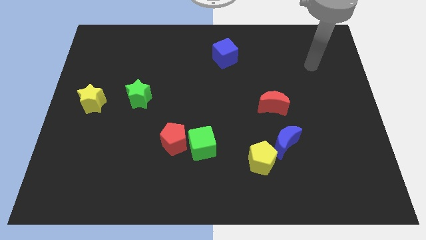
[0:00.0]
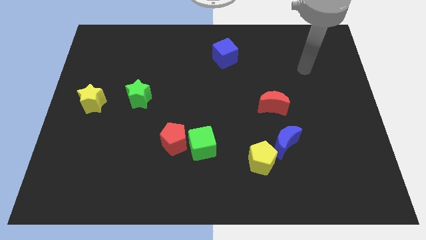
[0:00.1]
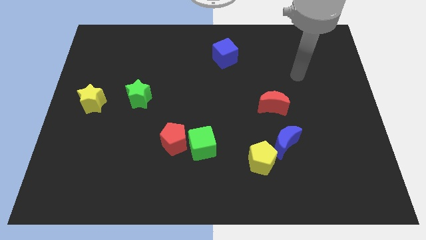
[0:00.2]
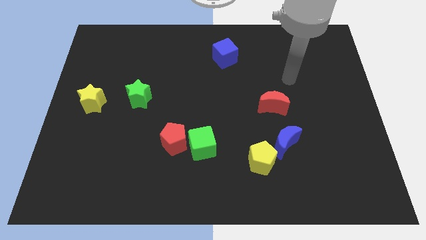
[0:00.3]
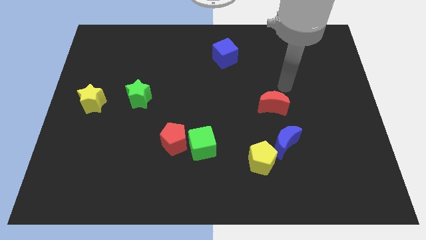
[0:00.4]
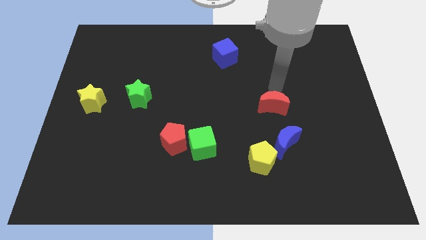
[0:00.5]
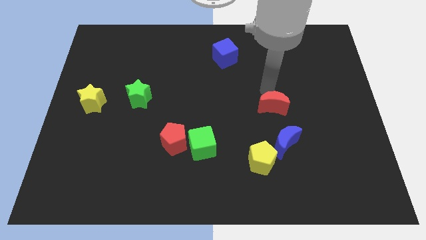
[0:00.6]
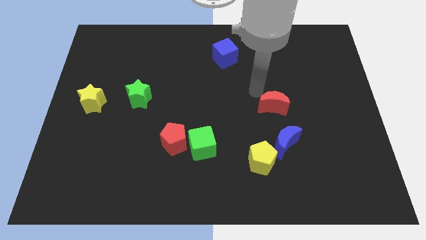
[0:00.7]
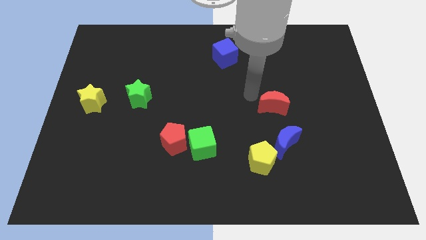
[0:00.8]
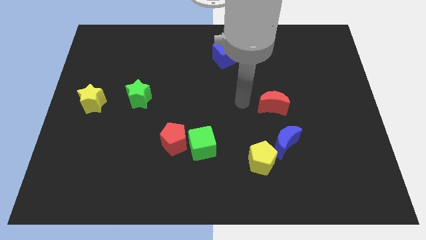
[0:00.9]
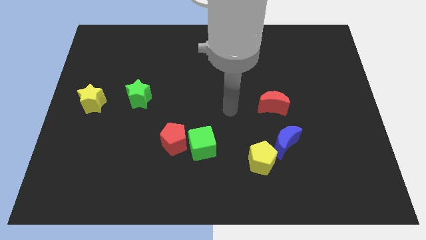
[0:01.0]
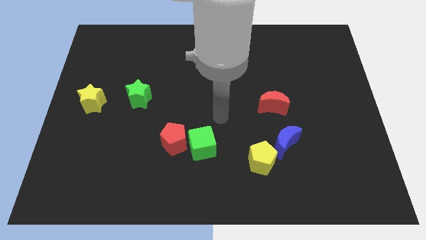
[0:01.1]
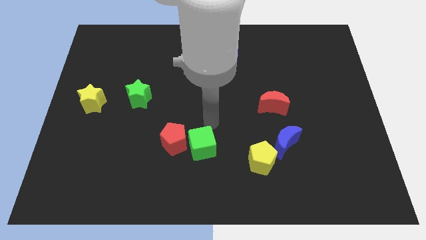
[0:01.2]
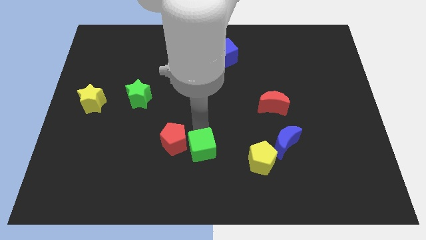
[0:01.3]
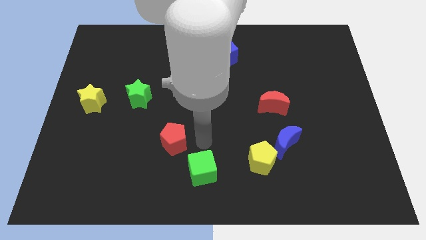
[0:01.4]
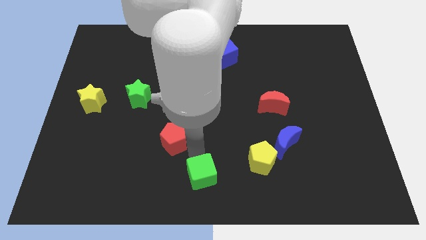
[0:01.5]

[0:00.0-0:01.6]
pull the red pentagon apart from the green cube

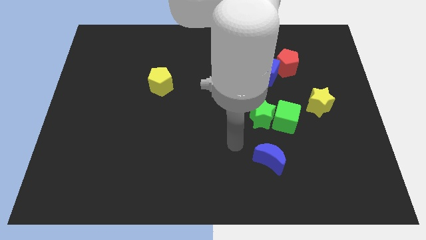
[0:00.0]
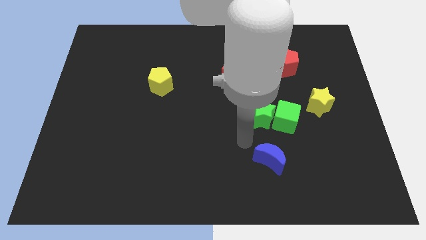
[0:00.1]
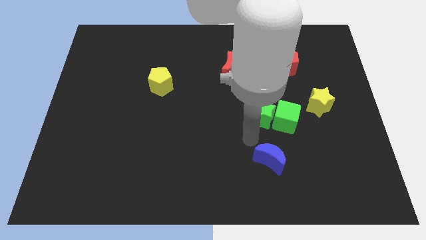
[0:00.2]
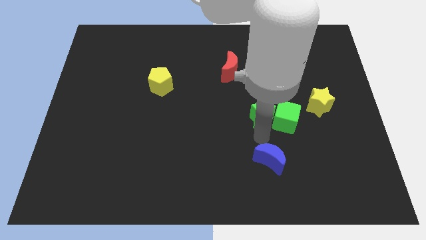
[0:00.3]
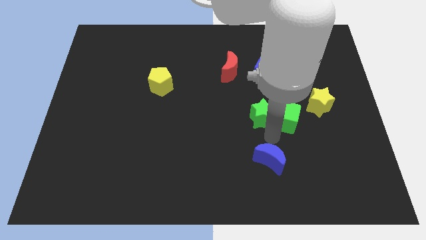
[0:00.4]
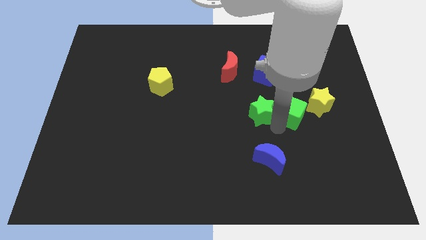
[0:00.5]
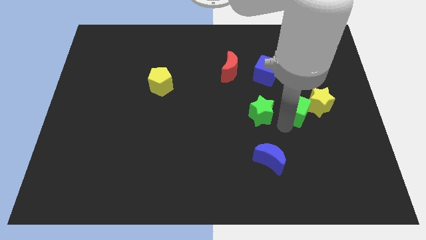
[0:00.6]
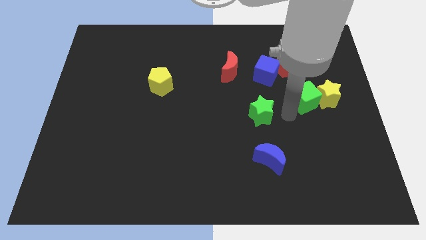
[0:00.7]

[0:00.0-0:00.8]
pull the green star apart from the green cube

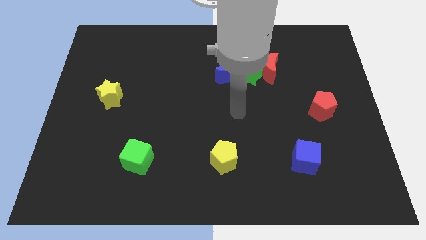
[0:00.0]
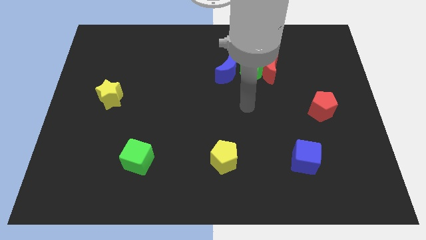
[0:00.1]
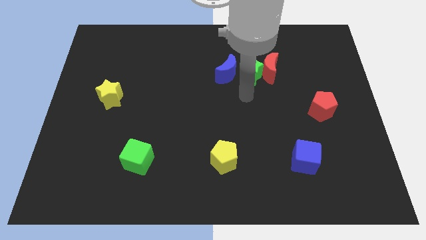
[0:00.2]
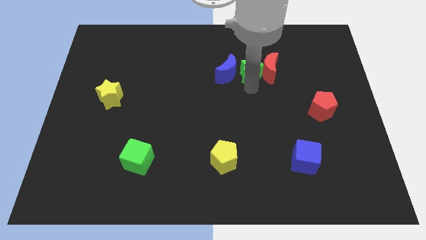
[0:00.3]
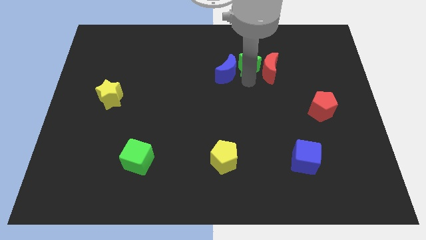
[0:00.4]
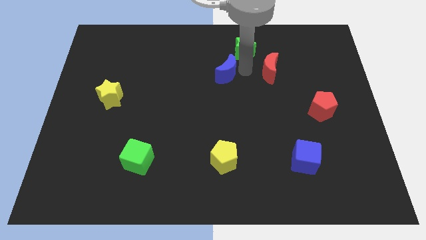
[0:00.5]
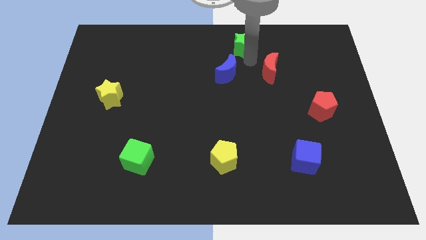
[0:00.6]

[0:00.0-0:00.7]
separate the red moon from the green star

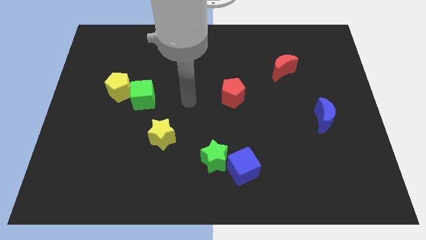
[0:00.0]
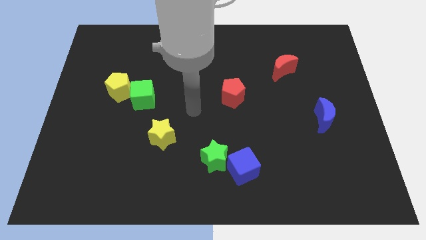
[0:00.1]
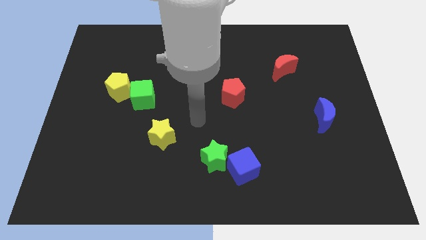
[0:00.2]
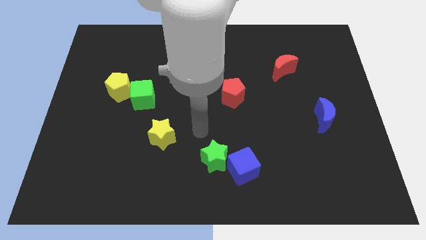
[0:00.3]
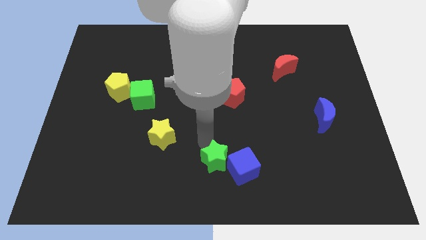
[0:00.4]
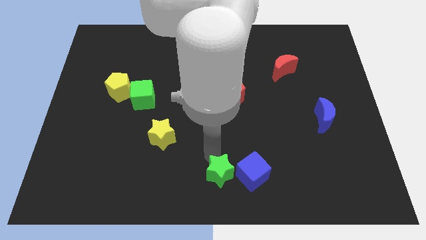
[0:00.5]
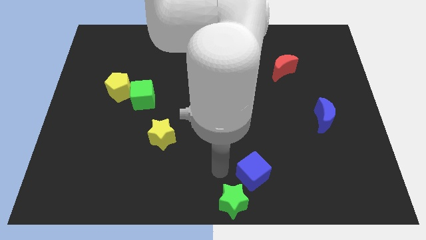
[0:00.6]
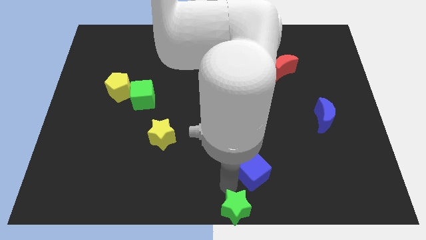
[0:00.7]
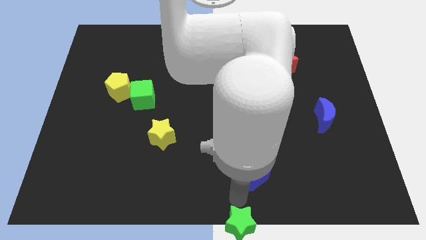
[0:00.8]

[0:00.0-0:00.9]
pull the blue cube apart from the green star

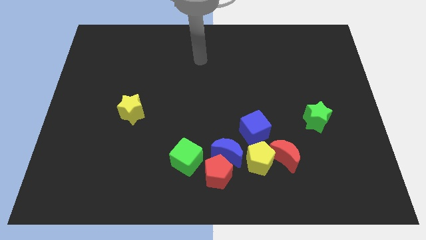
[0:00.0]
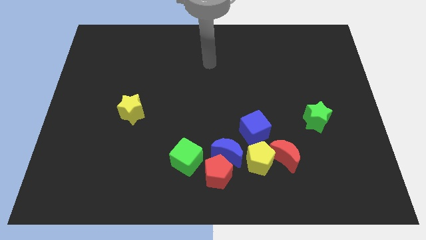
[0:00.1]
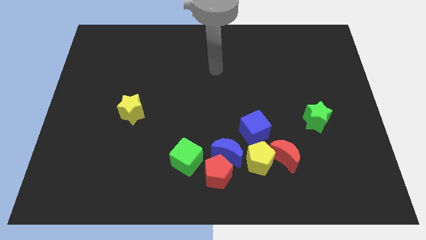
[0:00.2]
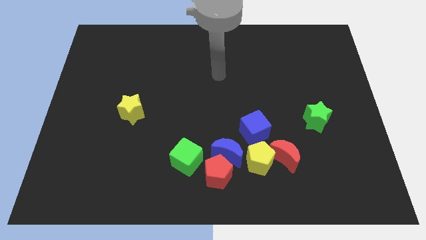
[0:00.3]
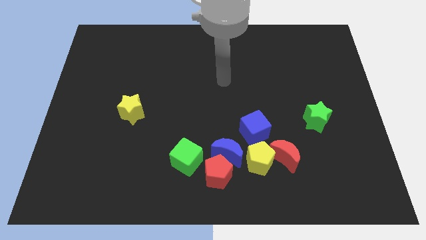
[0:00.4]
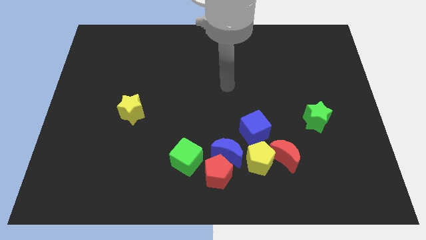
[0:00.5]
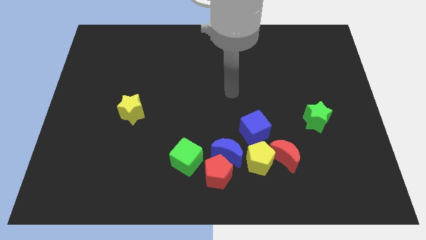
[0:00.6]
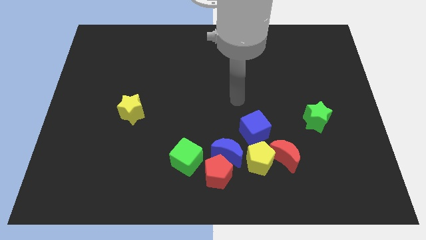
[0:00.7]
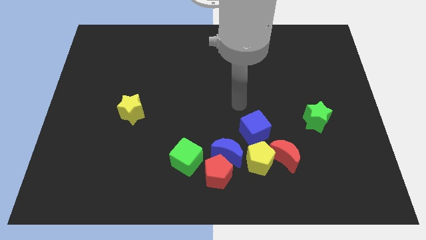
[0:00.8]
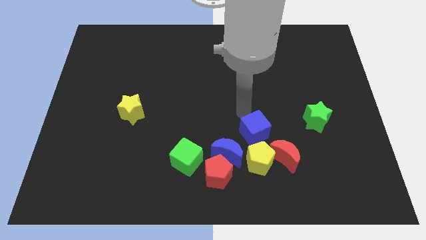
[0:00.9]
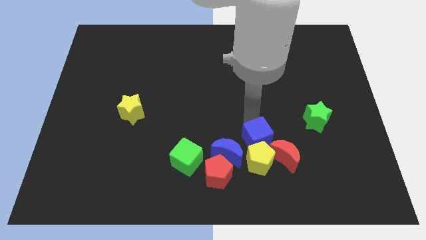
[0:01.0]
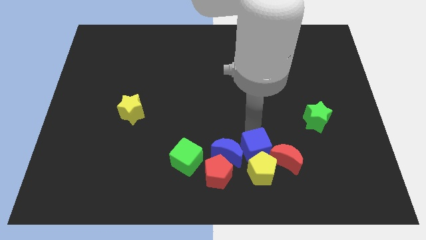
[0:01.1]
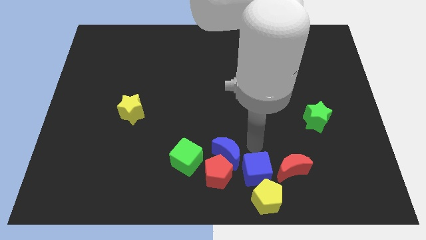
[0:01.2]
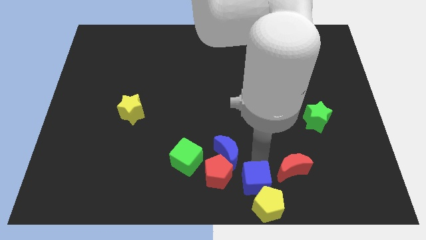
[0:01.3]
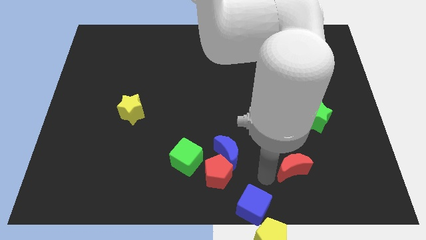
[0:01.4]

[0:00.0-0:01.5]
move the red moon away from the yellow pentagon and blue cube

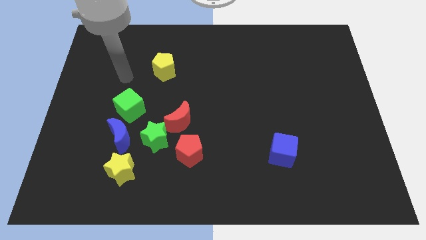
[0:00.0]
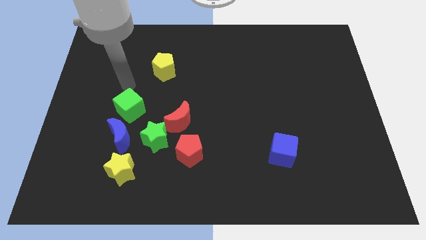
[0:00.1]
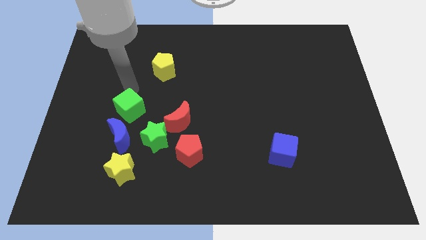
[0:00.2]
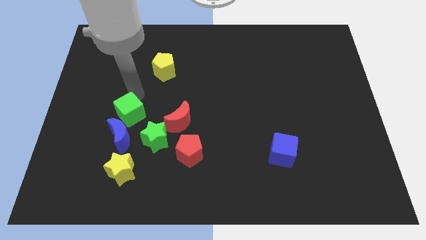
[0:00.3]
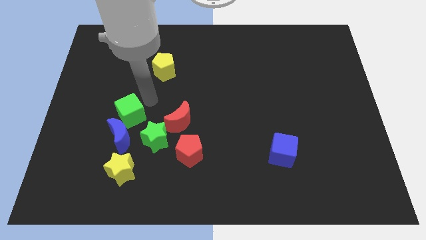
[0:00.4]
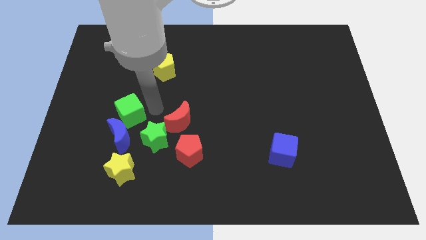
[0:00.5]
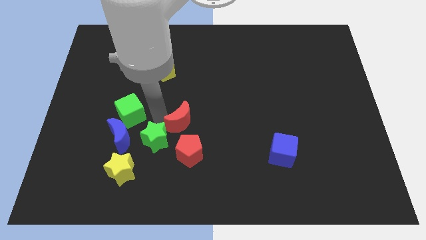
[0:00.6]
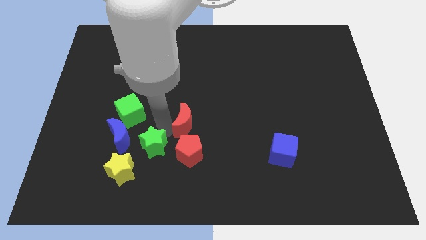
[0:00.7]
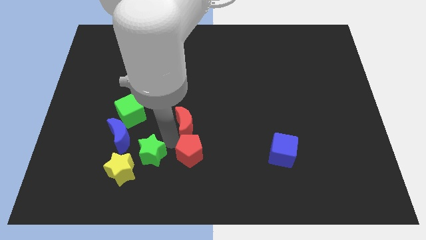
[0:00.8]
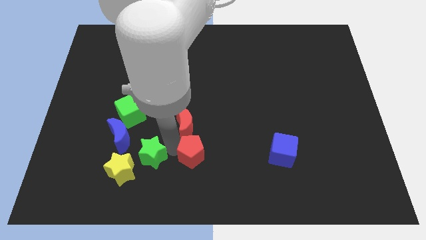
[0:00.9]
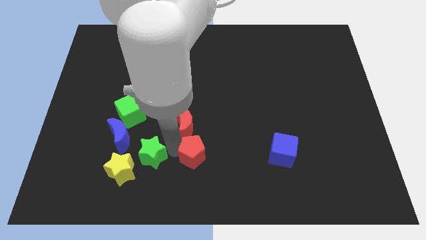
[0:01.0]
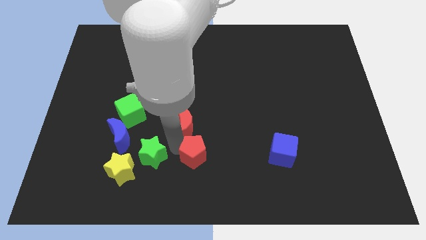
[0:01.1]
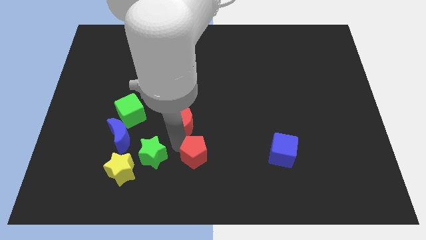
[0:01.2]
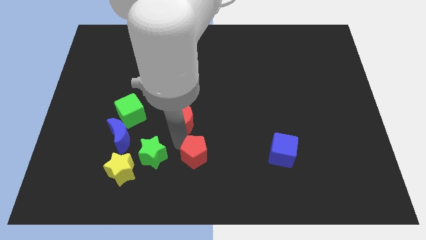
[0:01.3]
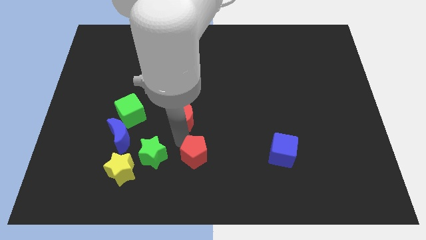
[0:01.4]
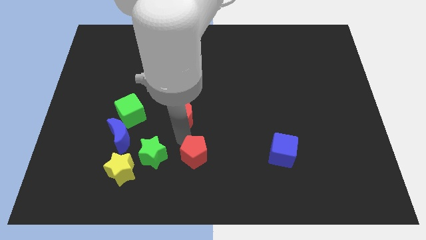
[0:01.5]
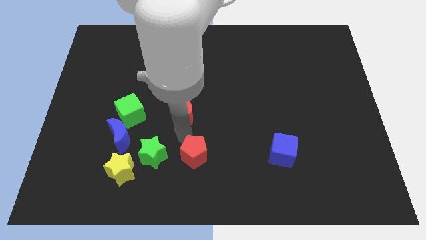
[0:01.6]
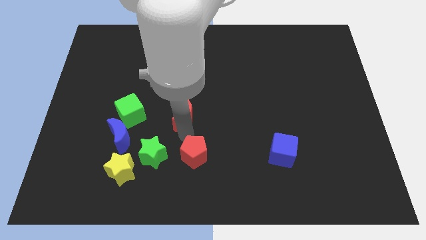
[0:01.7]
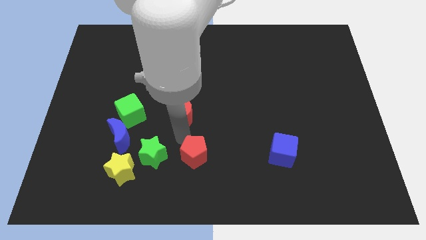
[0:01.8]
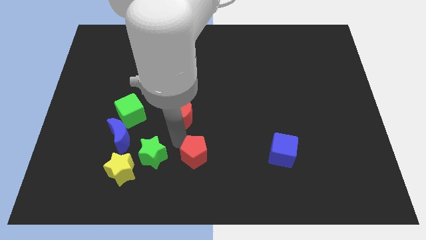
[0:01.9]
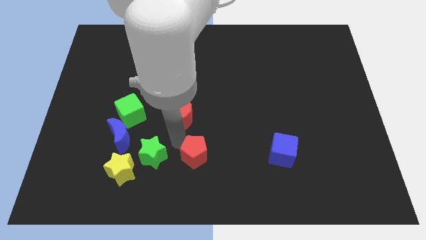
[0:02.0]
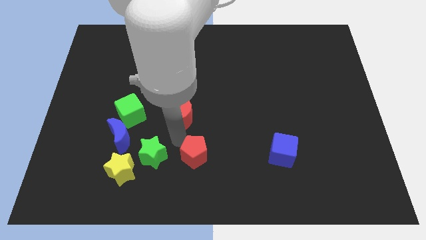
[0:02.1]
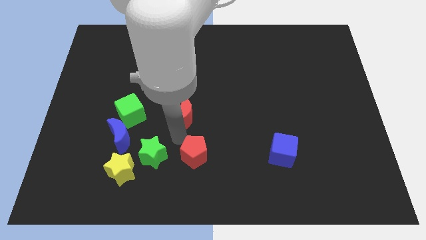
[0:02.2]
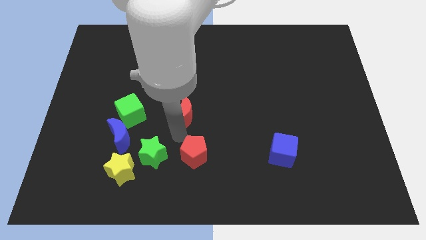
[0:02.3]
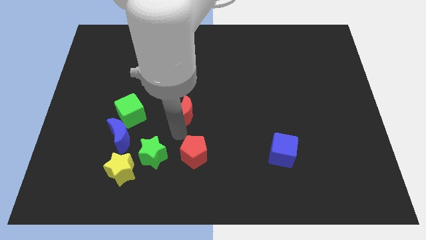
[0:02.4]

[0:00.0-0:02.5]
move the red moon away from the green star and red pentagon

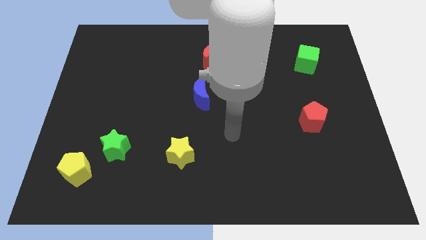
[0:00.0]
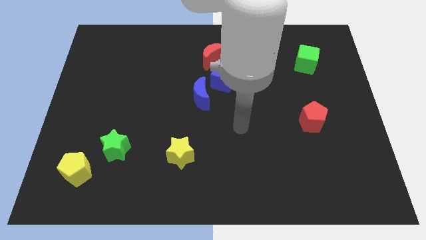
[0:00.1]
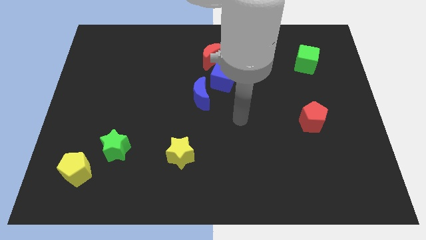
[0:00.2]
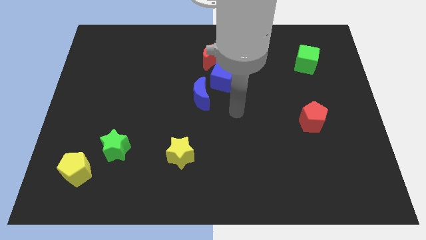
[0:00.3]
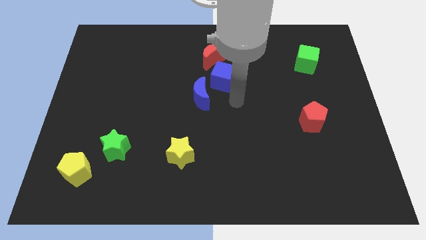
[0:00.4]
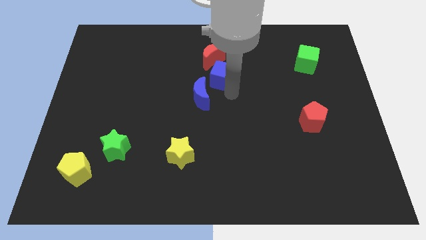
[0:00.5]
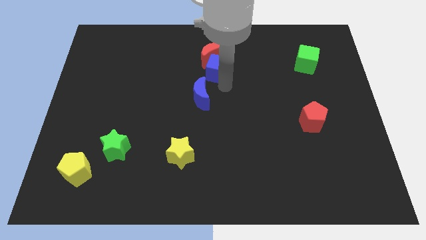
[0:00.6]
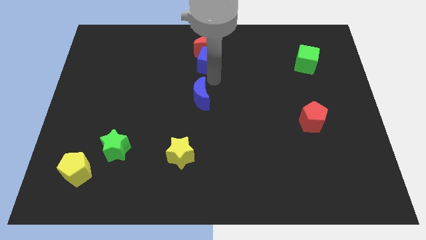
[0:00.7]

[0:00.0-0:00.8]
pull the blue moon apart from the blue cube

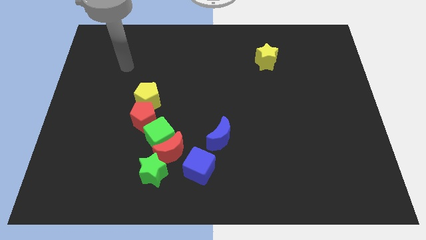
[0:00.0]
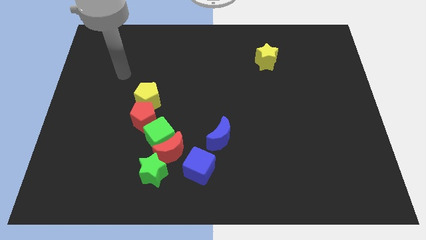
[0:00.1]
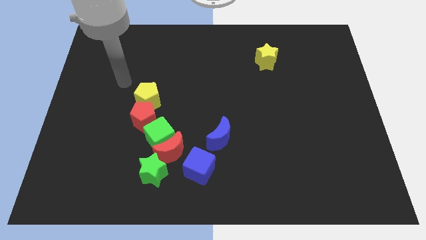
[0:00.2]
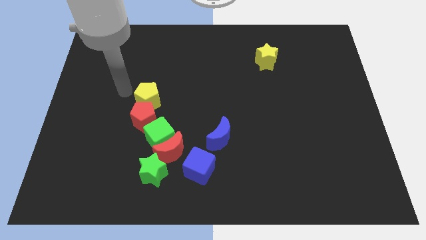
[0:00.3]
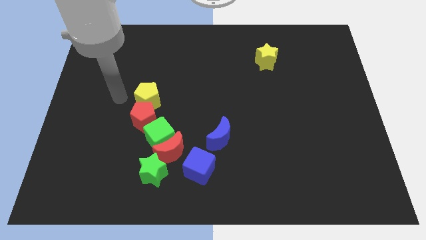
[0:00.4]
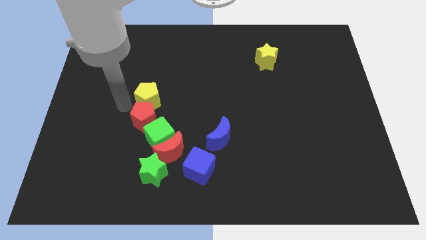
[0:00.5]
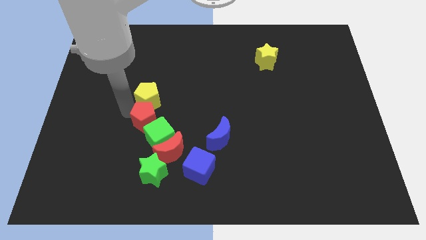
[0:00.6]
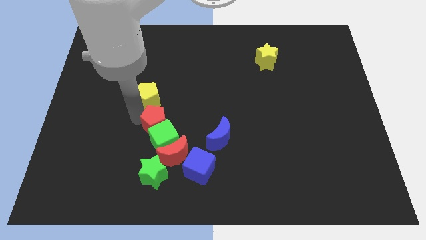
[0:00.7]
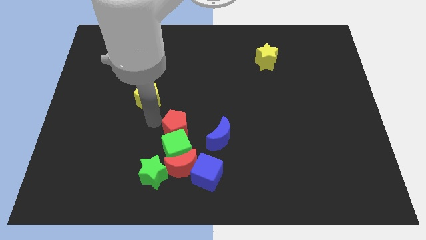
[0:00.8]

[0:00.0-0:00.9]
separate the yellow pentagon from the red pentagon
